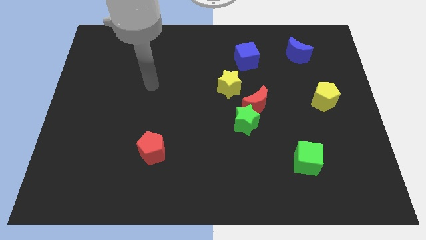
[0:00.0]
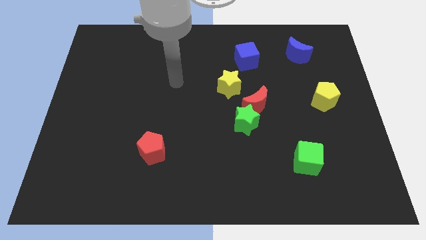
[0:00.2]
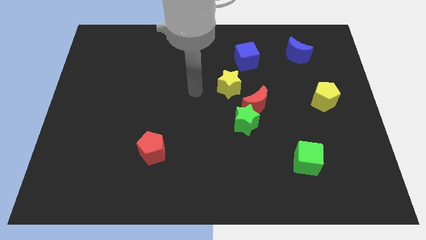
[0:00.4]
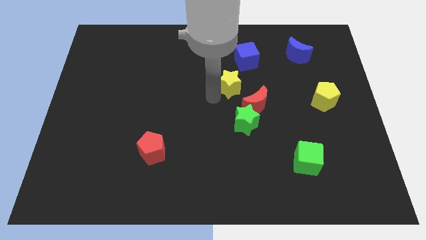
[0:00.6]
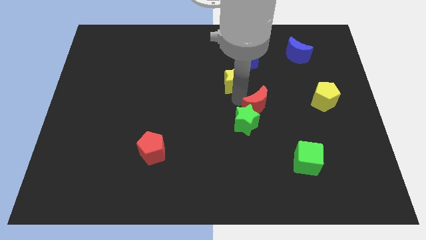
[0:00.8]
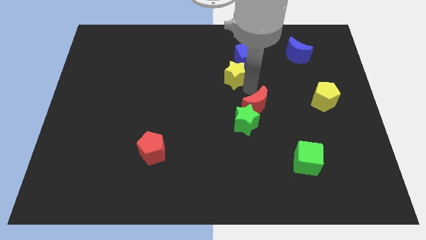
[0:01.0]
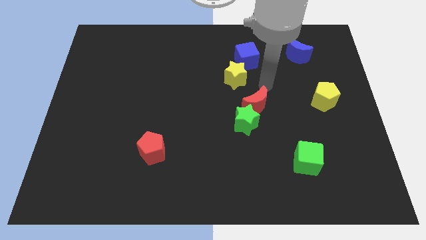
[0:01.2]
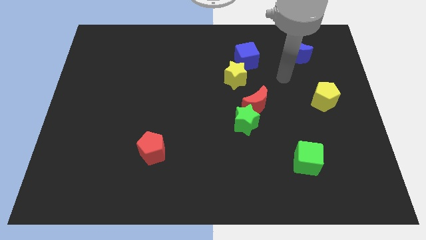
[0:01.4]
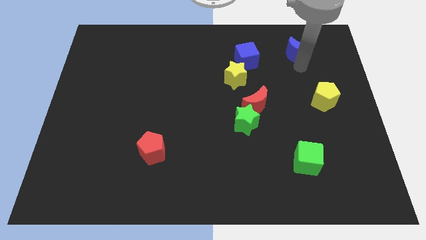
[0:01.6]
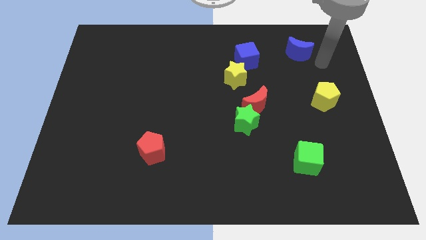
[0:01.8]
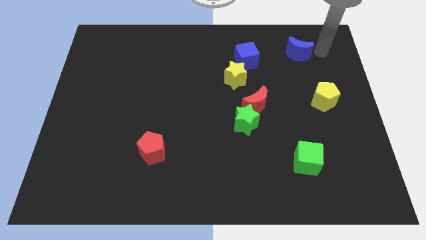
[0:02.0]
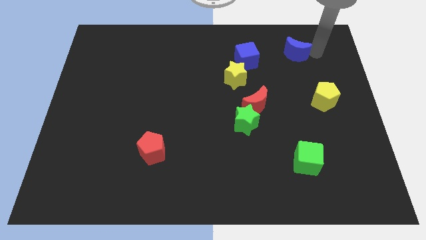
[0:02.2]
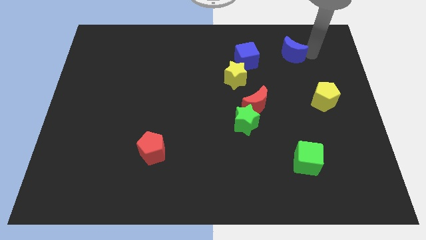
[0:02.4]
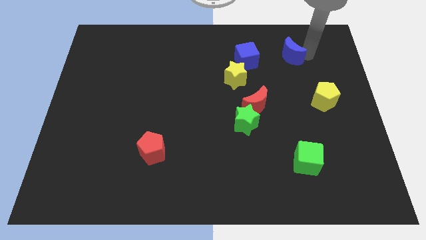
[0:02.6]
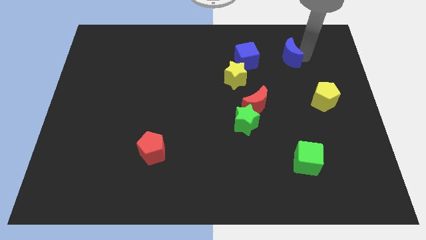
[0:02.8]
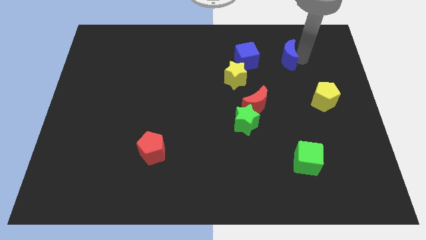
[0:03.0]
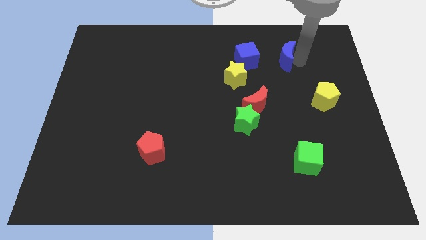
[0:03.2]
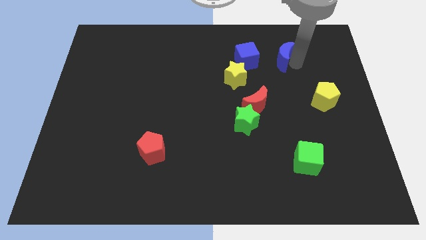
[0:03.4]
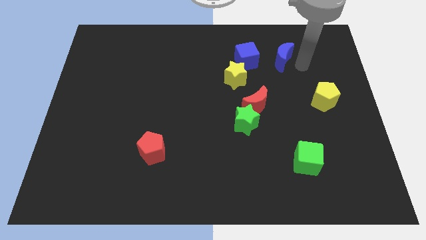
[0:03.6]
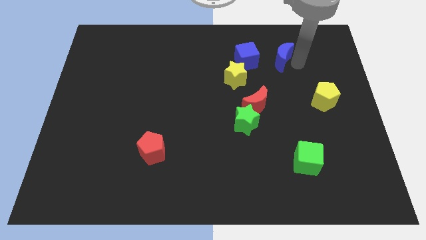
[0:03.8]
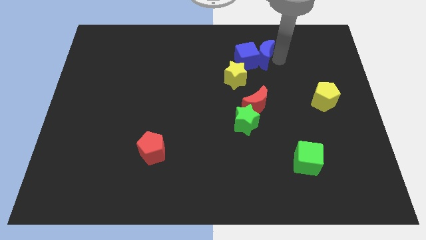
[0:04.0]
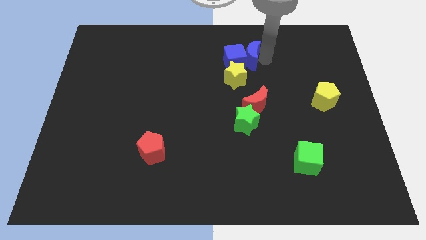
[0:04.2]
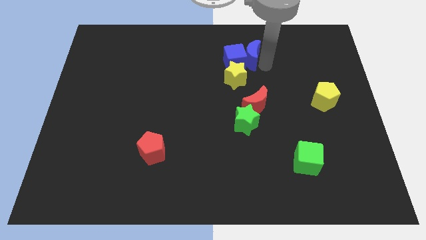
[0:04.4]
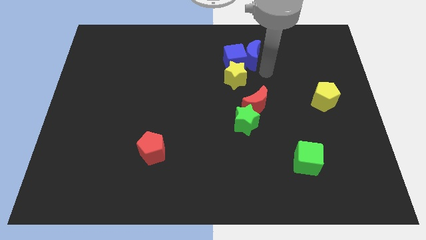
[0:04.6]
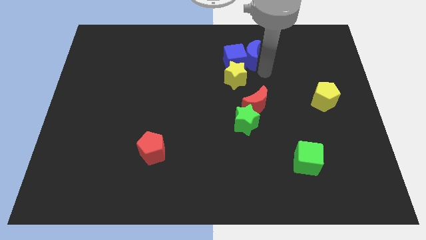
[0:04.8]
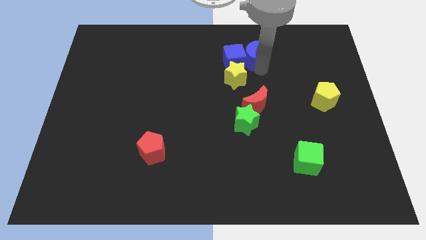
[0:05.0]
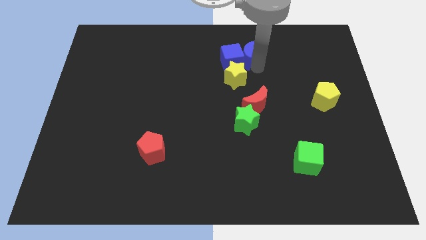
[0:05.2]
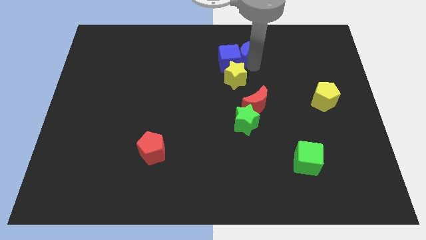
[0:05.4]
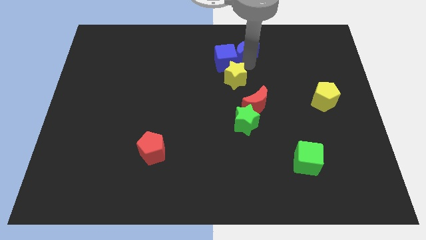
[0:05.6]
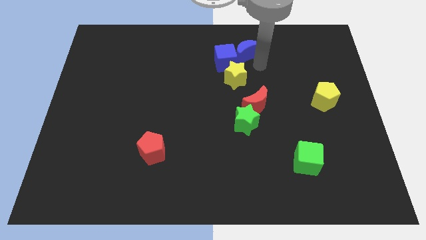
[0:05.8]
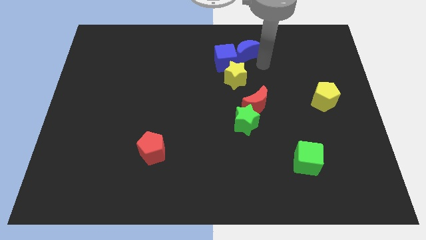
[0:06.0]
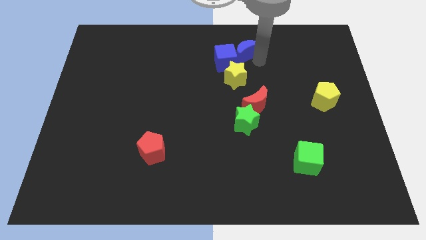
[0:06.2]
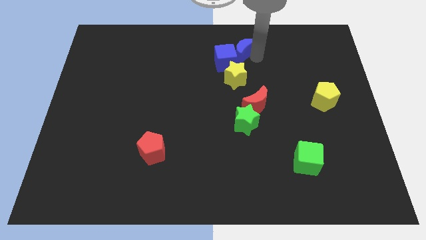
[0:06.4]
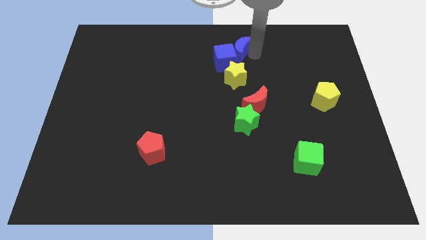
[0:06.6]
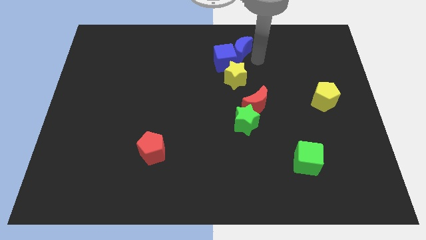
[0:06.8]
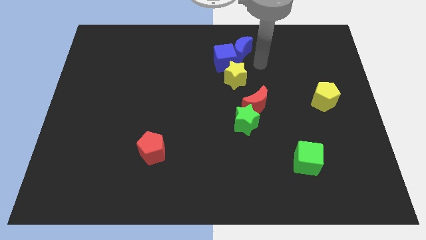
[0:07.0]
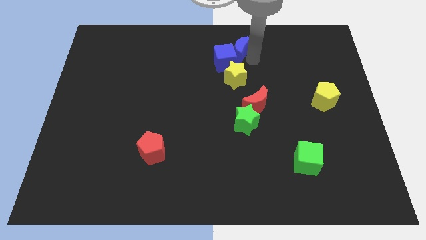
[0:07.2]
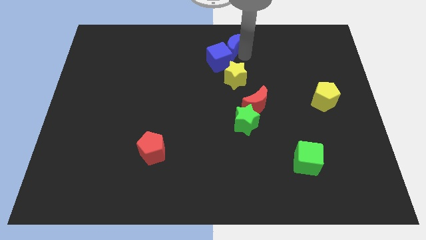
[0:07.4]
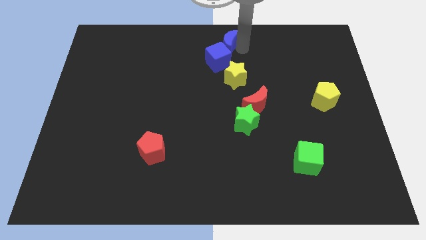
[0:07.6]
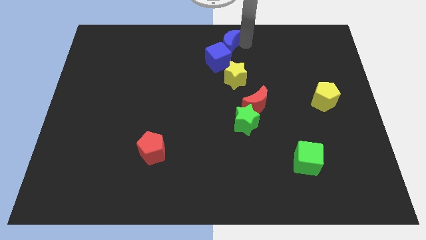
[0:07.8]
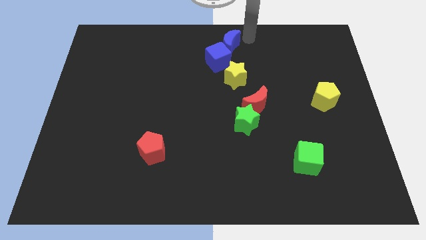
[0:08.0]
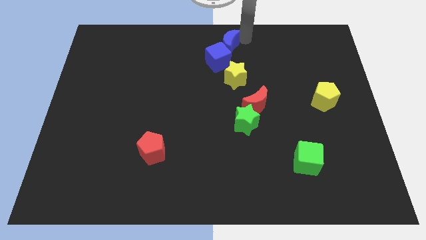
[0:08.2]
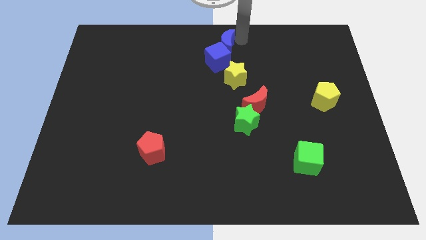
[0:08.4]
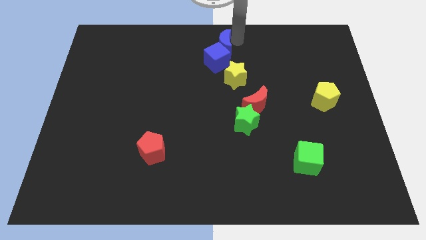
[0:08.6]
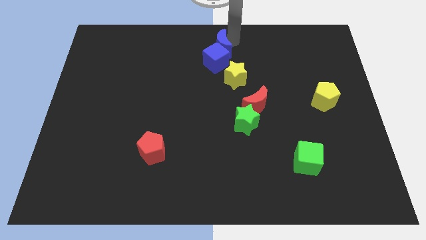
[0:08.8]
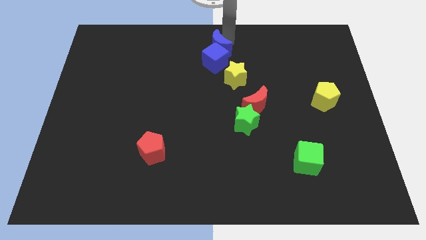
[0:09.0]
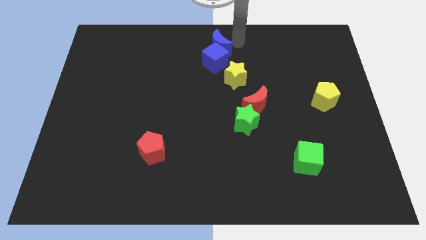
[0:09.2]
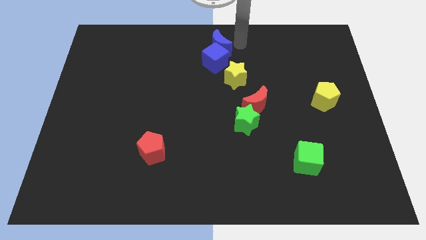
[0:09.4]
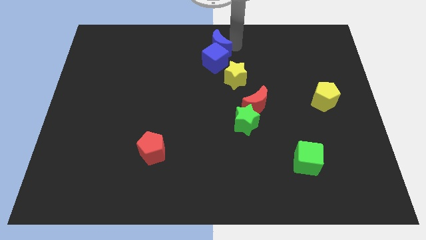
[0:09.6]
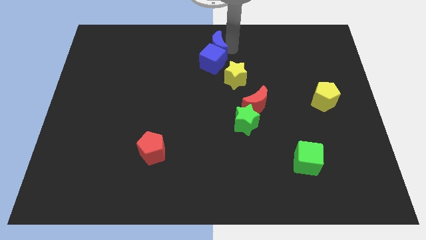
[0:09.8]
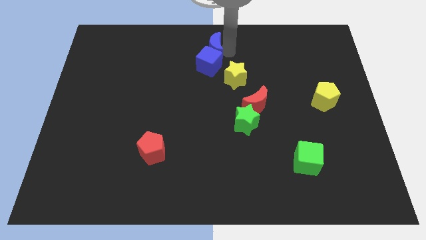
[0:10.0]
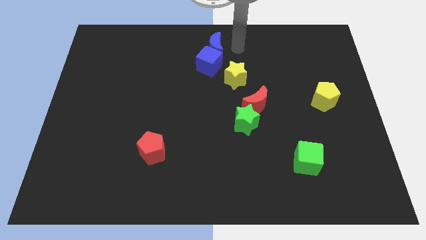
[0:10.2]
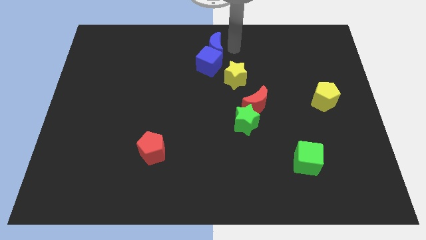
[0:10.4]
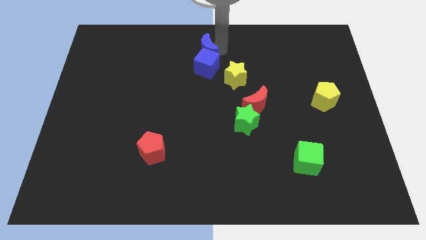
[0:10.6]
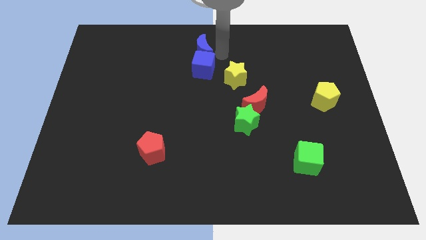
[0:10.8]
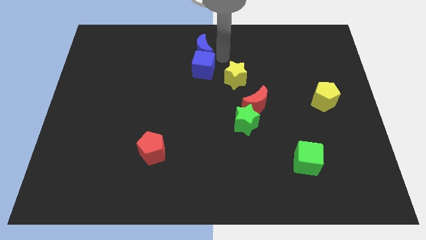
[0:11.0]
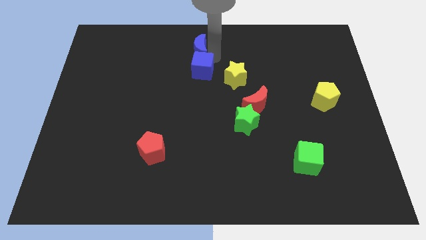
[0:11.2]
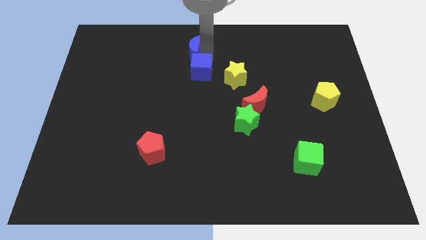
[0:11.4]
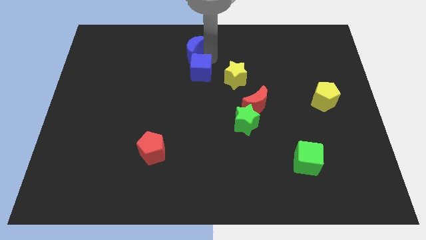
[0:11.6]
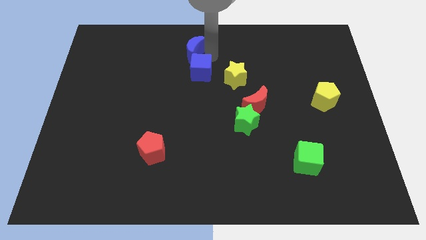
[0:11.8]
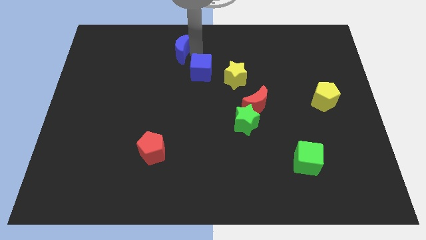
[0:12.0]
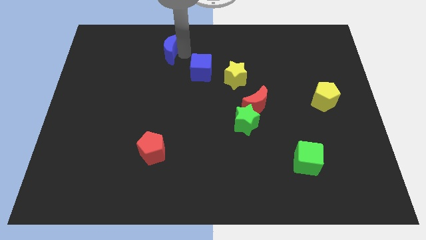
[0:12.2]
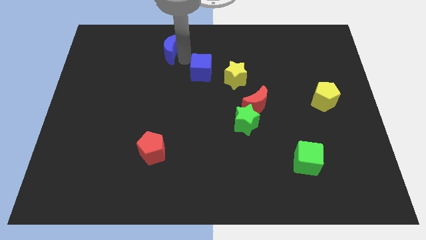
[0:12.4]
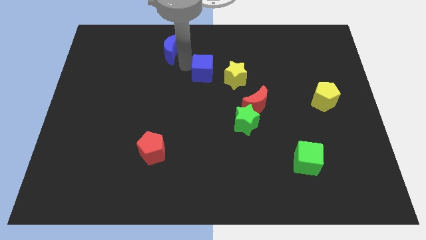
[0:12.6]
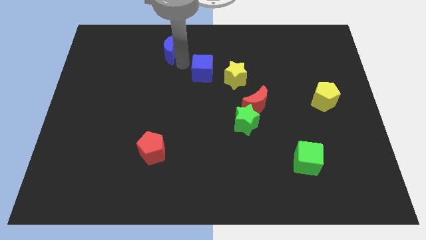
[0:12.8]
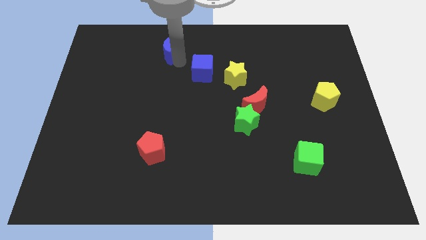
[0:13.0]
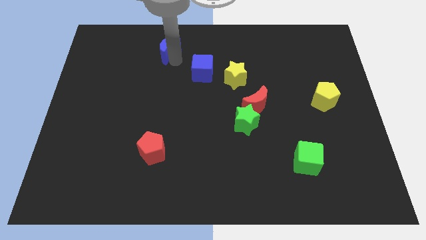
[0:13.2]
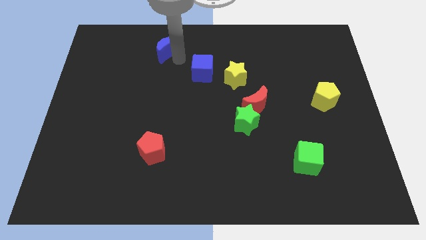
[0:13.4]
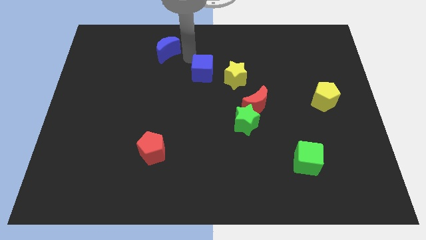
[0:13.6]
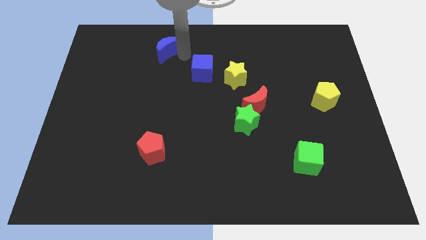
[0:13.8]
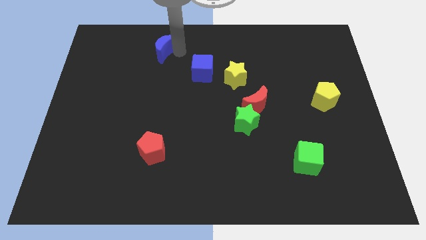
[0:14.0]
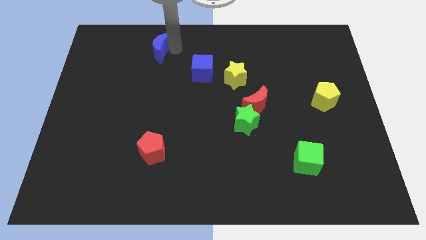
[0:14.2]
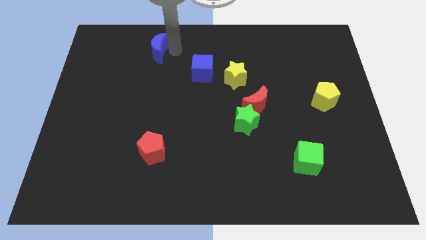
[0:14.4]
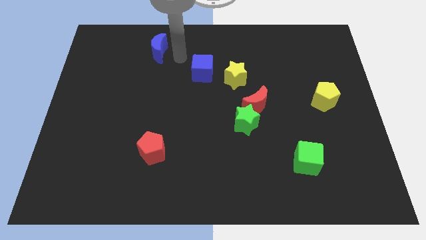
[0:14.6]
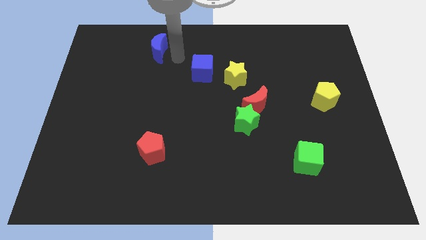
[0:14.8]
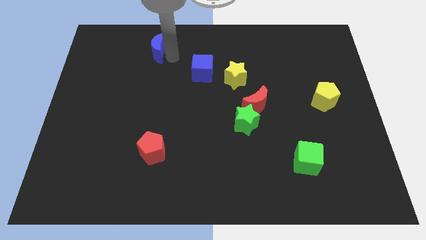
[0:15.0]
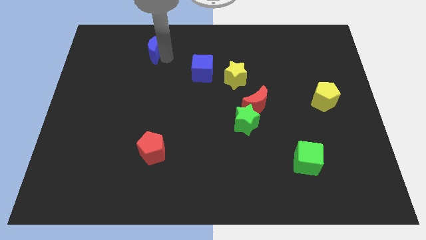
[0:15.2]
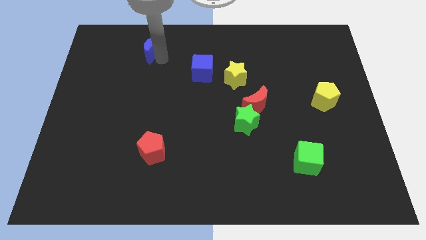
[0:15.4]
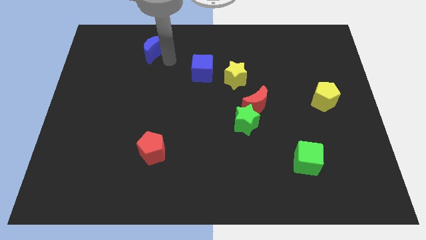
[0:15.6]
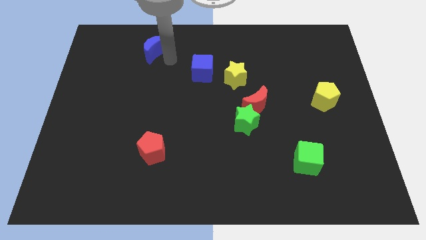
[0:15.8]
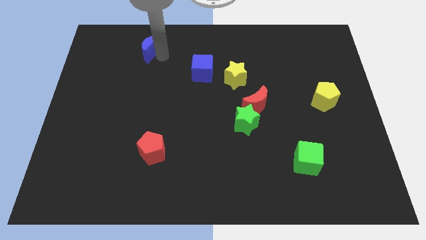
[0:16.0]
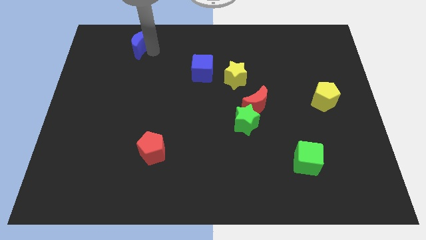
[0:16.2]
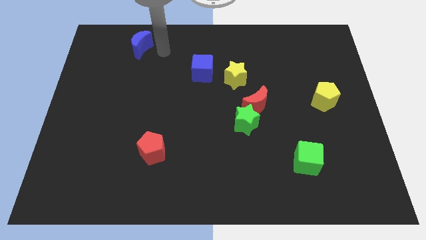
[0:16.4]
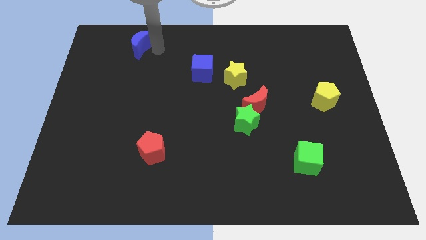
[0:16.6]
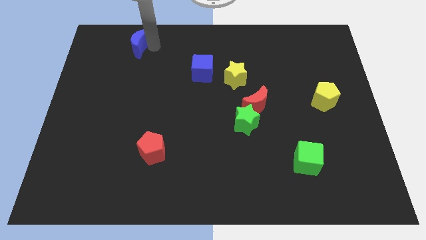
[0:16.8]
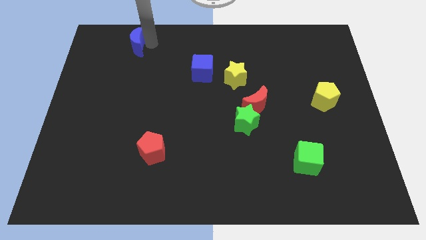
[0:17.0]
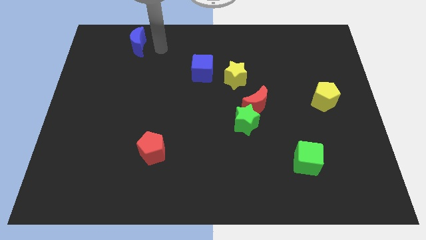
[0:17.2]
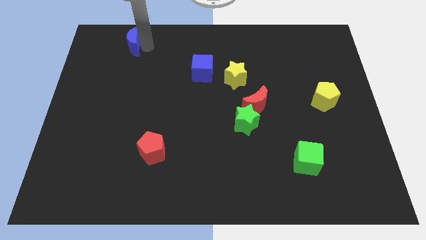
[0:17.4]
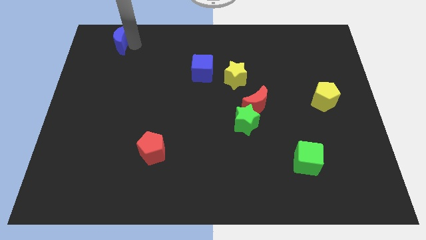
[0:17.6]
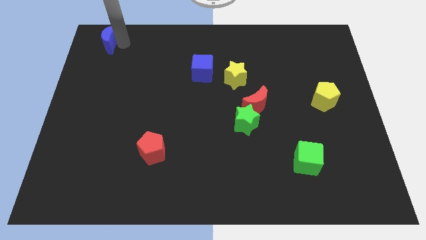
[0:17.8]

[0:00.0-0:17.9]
push the blue moon to the top left corner
